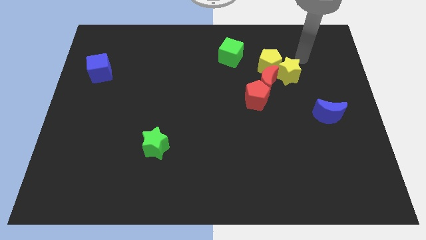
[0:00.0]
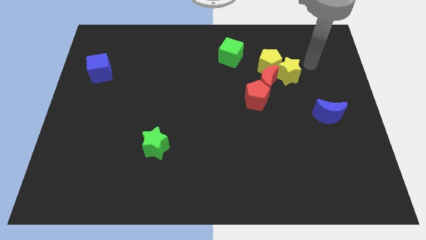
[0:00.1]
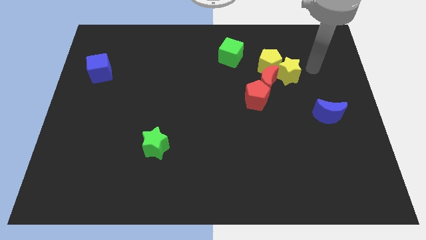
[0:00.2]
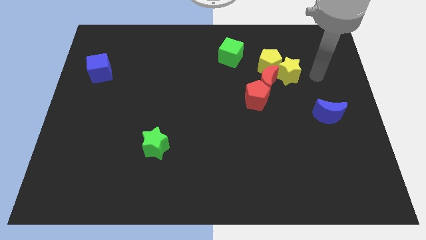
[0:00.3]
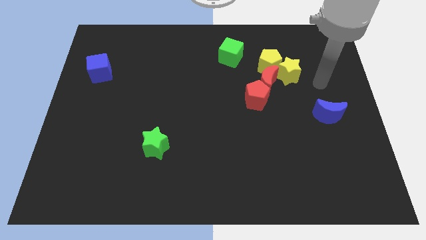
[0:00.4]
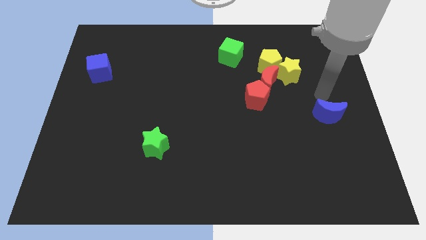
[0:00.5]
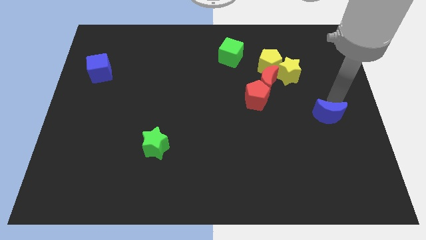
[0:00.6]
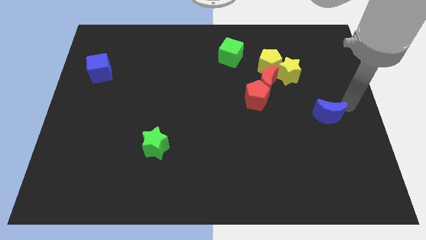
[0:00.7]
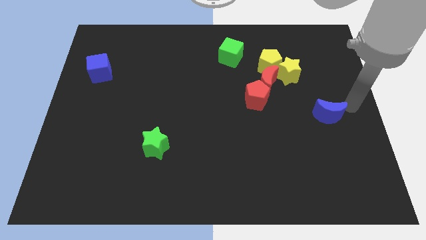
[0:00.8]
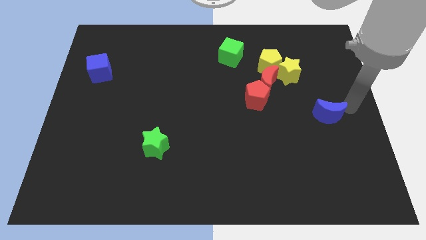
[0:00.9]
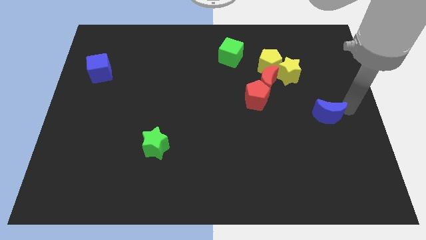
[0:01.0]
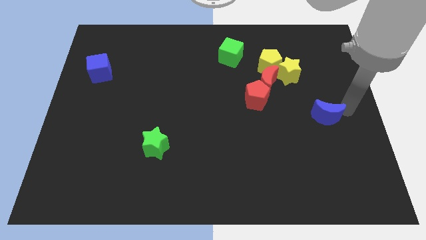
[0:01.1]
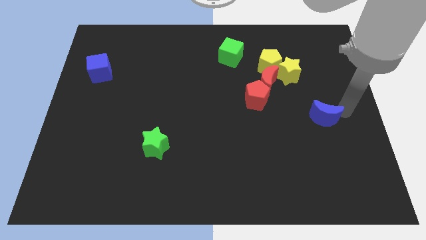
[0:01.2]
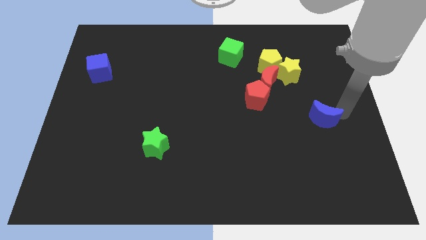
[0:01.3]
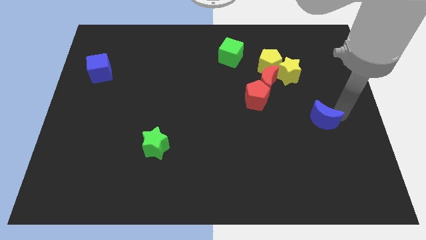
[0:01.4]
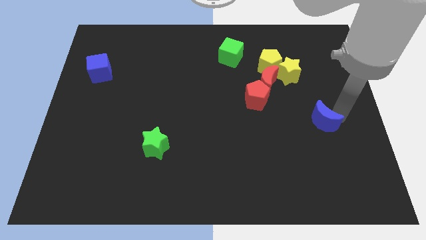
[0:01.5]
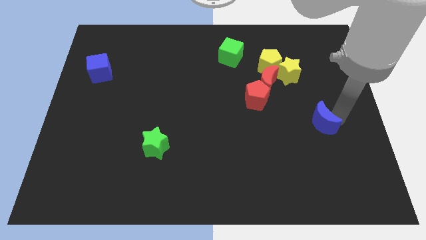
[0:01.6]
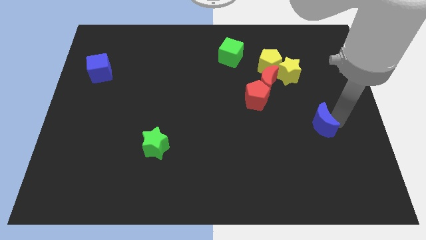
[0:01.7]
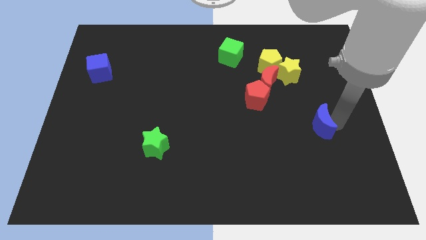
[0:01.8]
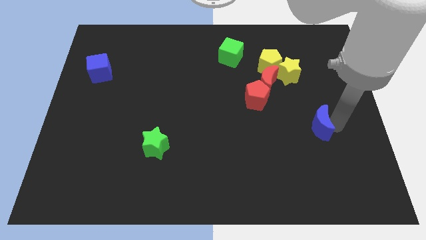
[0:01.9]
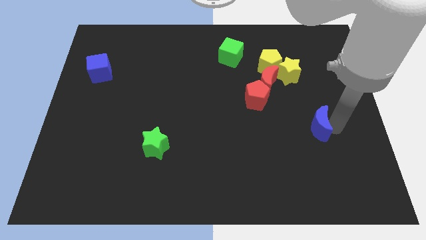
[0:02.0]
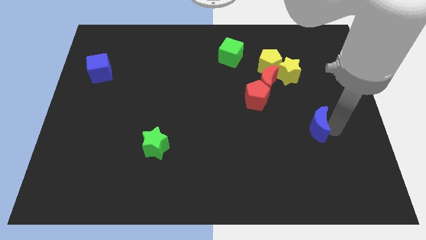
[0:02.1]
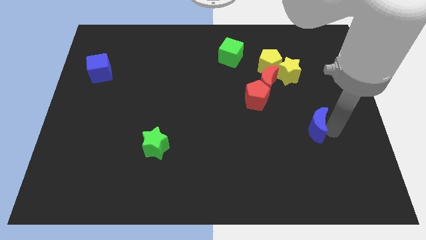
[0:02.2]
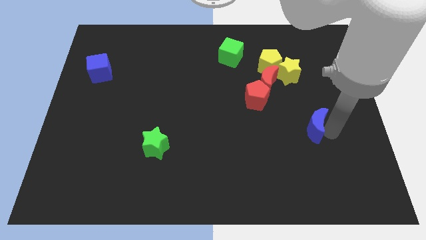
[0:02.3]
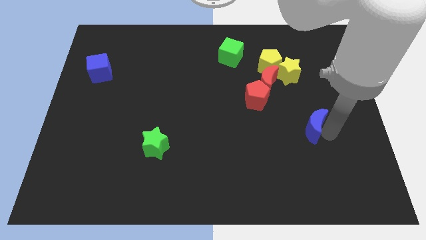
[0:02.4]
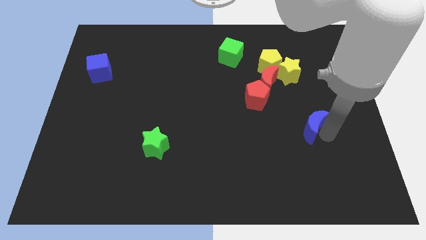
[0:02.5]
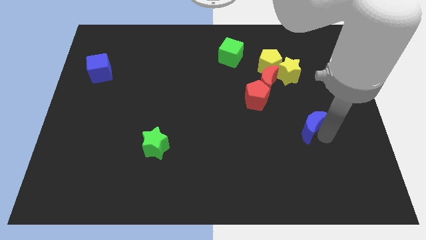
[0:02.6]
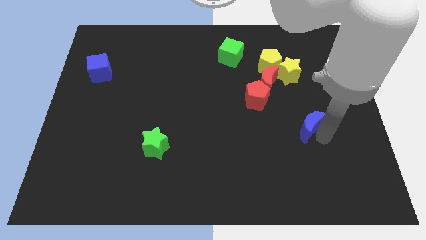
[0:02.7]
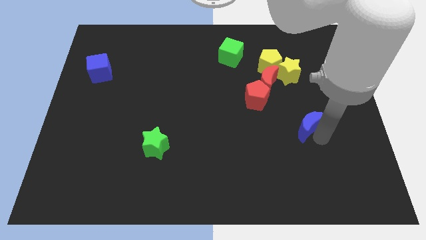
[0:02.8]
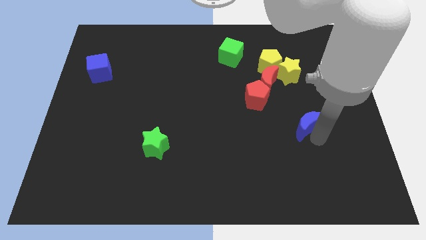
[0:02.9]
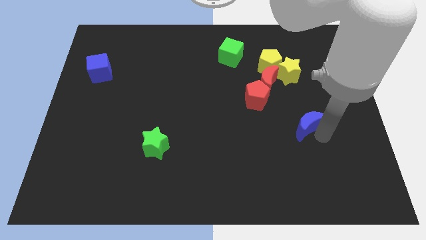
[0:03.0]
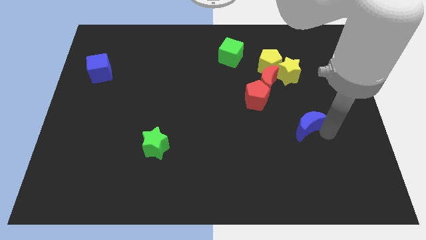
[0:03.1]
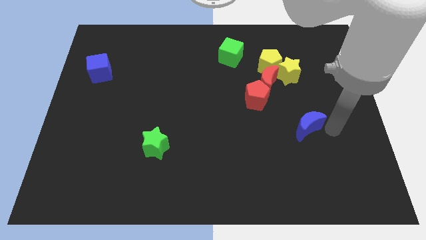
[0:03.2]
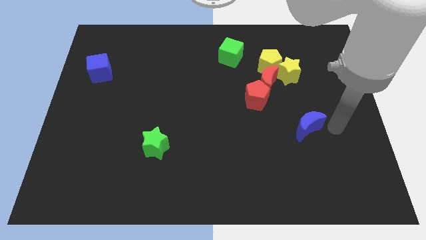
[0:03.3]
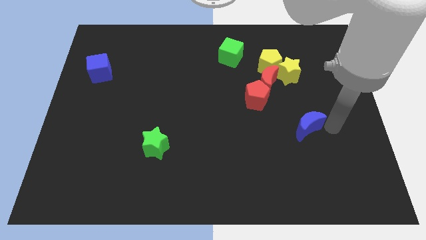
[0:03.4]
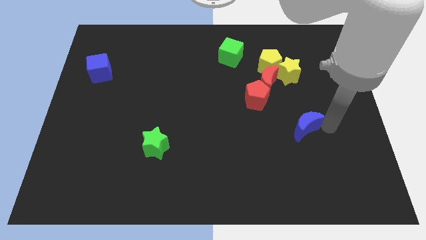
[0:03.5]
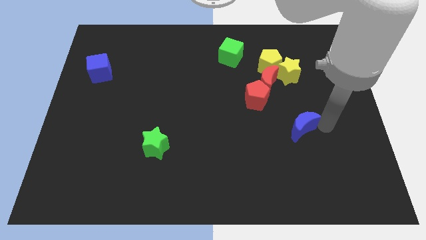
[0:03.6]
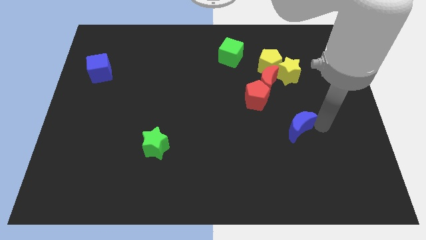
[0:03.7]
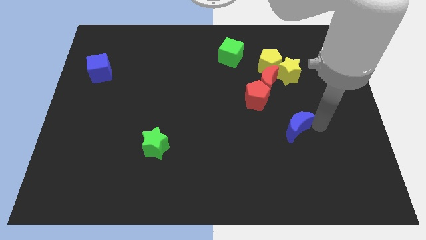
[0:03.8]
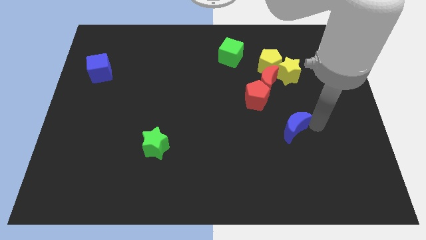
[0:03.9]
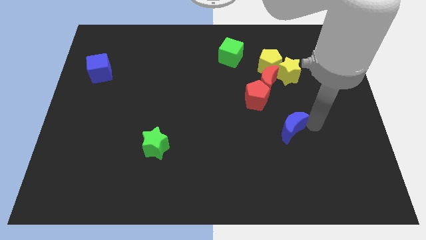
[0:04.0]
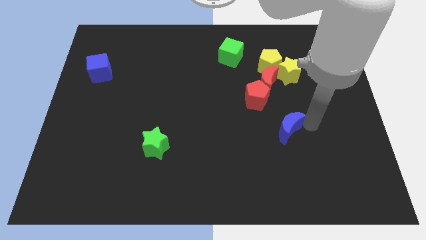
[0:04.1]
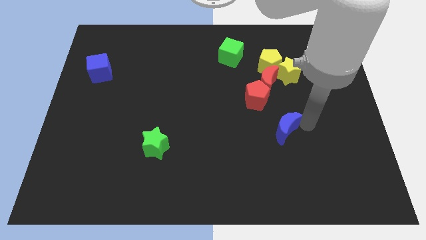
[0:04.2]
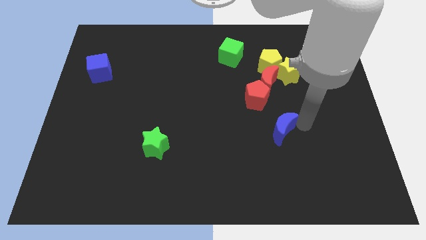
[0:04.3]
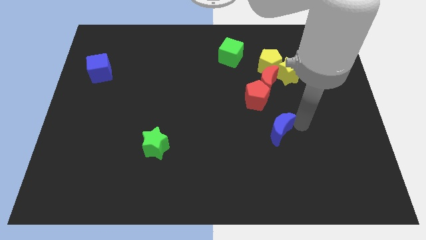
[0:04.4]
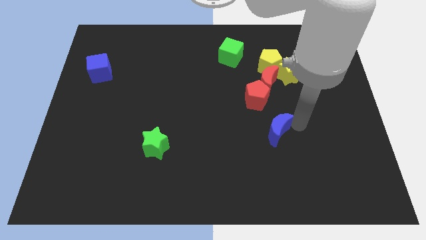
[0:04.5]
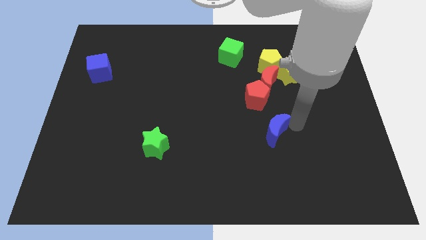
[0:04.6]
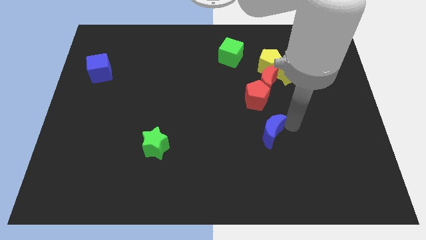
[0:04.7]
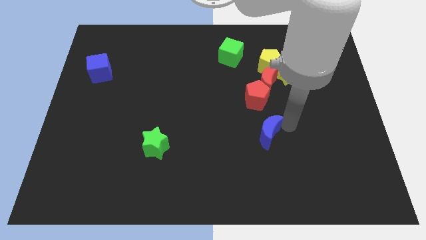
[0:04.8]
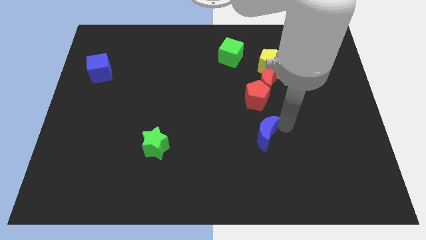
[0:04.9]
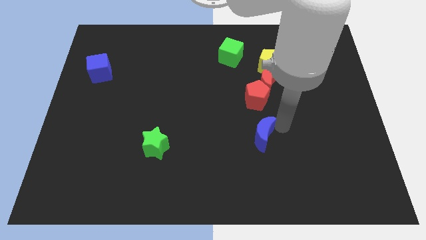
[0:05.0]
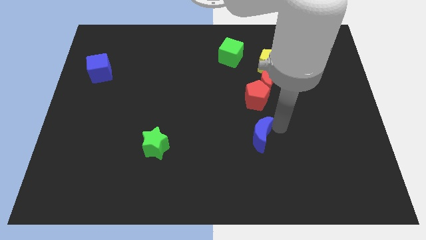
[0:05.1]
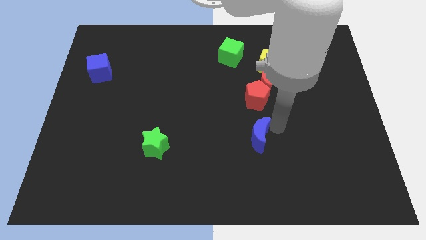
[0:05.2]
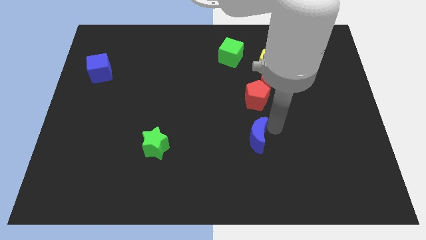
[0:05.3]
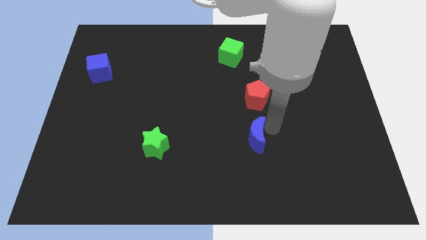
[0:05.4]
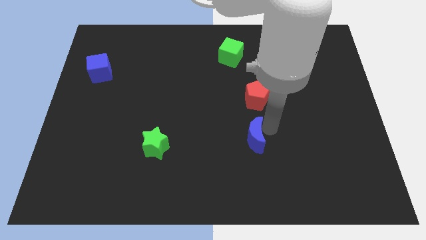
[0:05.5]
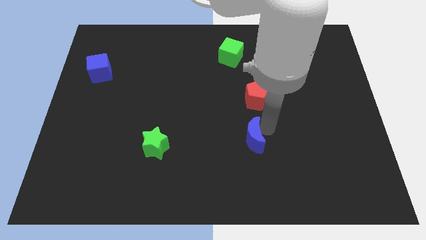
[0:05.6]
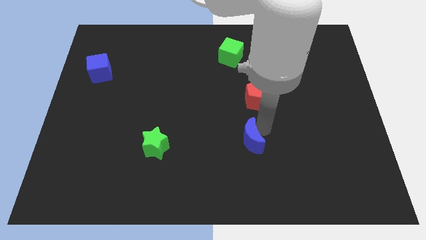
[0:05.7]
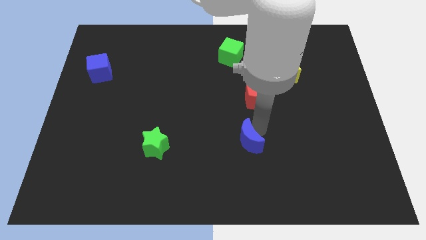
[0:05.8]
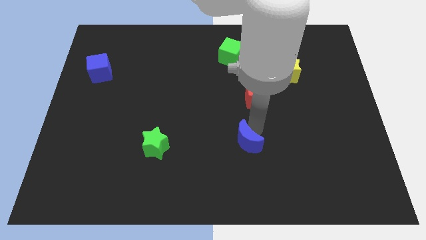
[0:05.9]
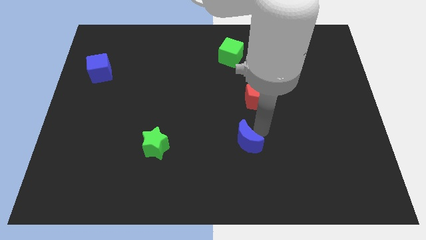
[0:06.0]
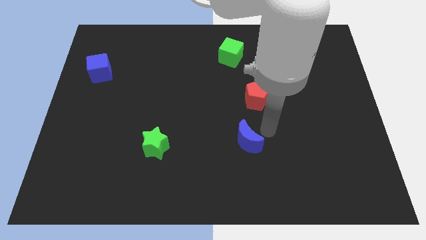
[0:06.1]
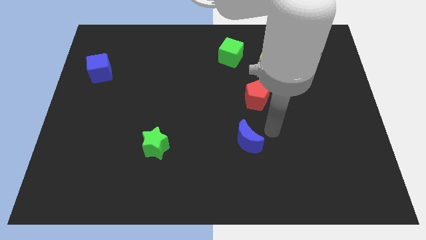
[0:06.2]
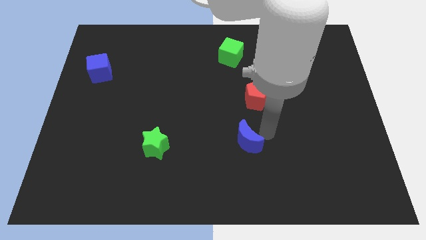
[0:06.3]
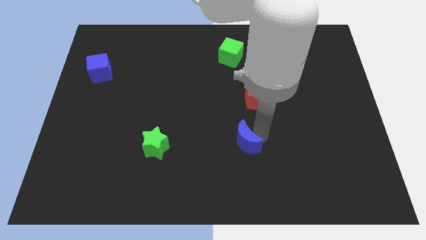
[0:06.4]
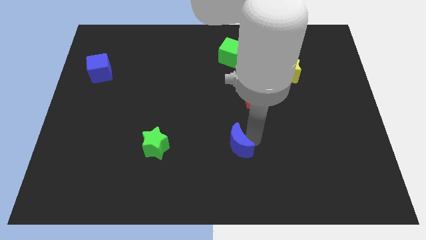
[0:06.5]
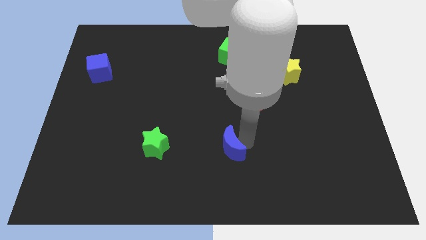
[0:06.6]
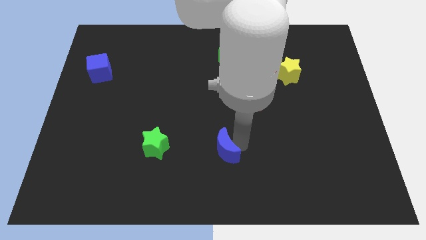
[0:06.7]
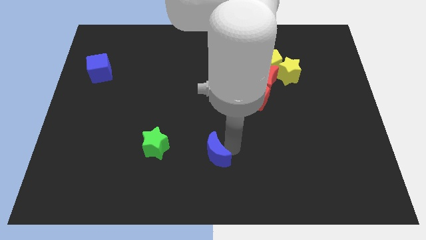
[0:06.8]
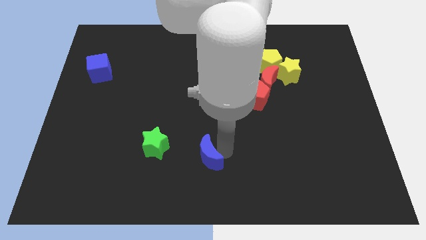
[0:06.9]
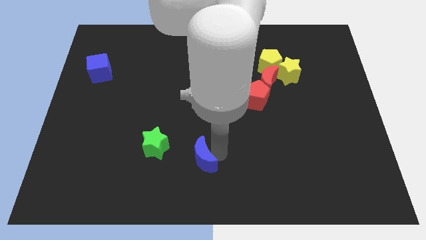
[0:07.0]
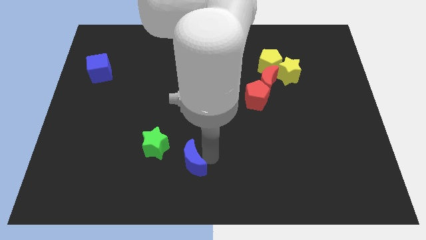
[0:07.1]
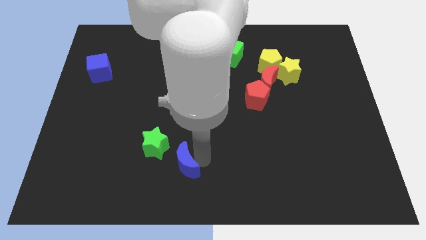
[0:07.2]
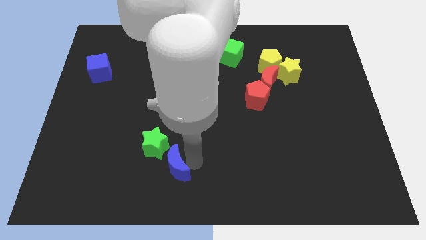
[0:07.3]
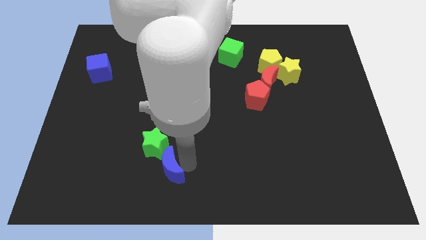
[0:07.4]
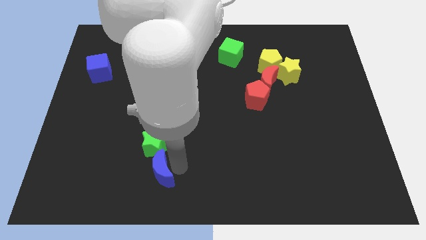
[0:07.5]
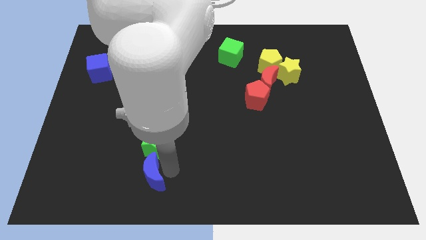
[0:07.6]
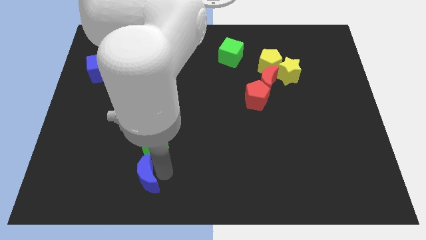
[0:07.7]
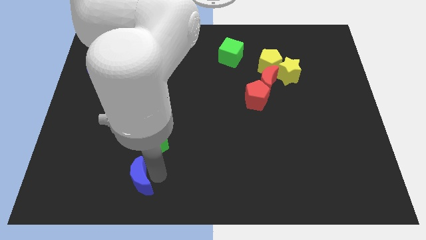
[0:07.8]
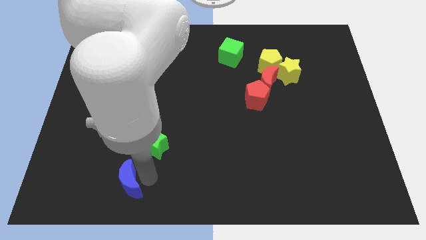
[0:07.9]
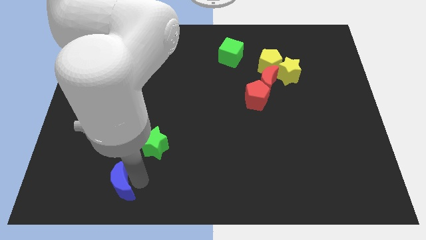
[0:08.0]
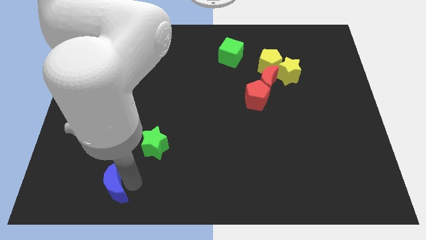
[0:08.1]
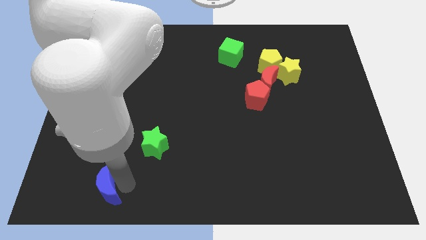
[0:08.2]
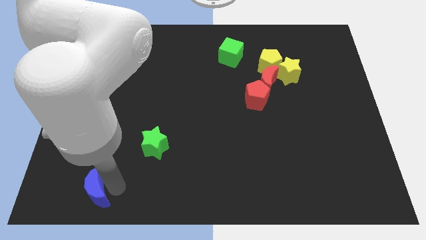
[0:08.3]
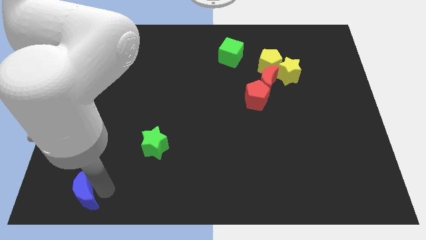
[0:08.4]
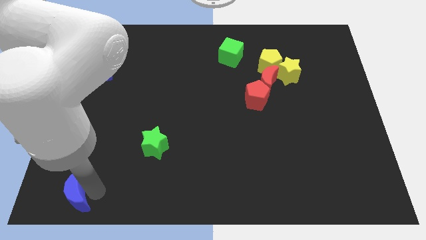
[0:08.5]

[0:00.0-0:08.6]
move the blue moon to the bottom left of the board
